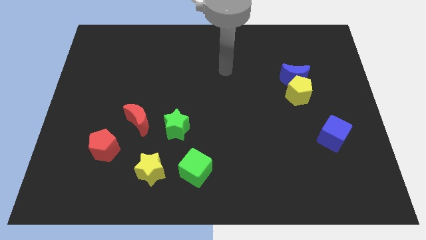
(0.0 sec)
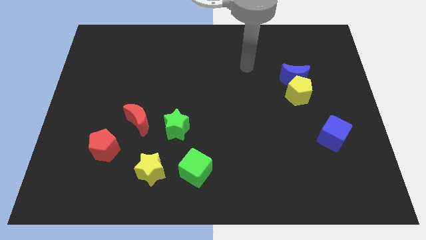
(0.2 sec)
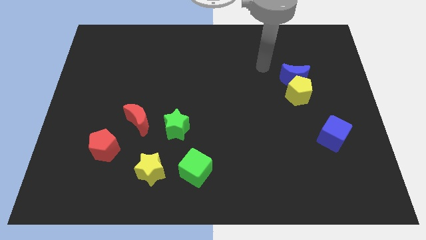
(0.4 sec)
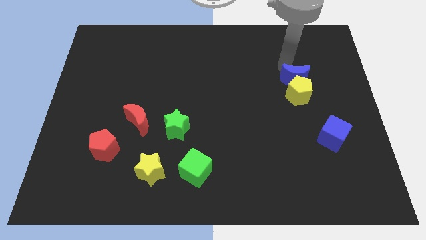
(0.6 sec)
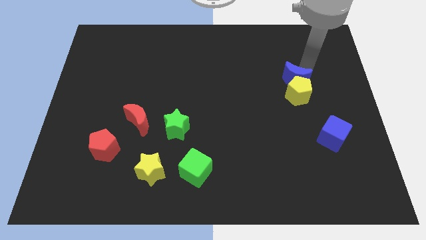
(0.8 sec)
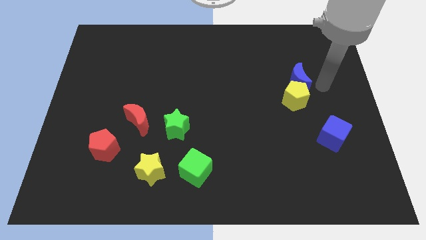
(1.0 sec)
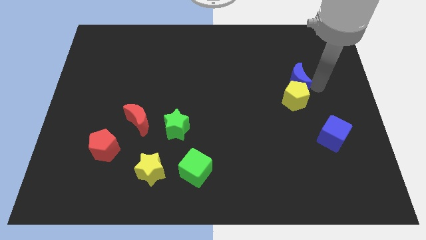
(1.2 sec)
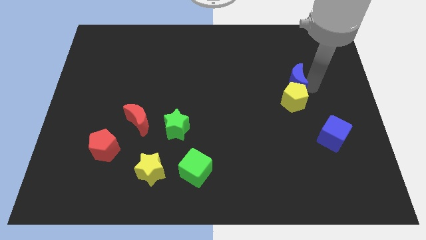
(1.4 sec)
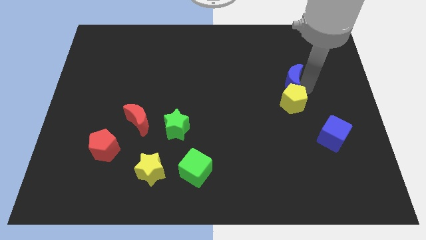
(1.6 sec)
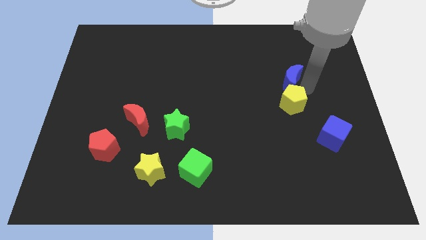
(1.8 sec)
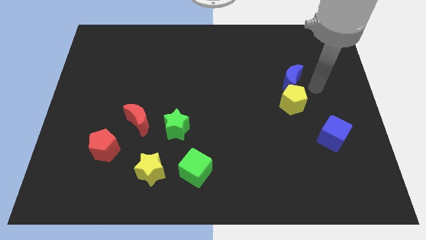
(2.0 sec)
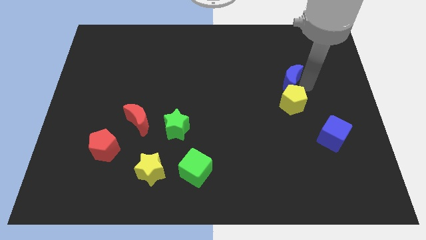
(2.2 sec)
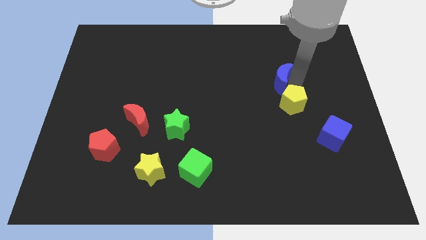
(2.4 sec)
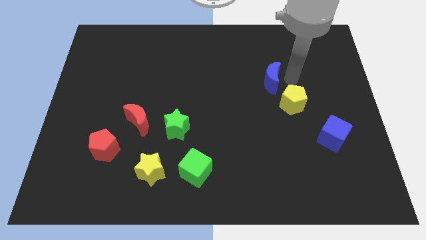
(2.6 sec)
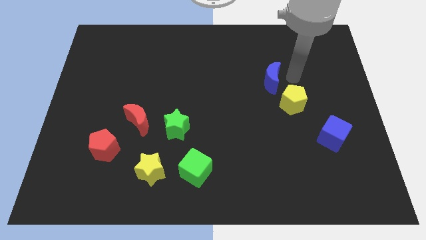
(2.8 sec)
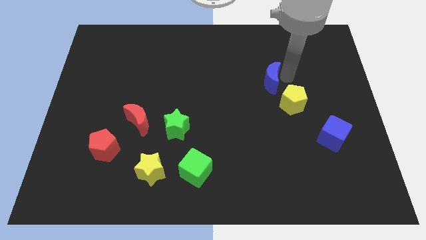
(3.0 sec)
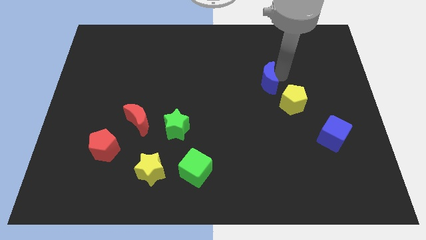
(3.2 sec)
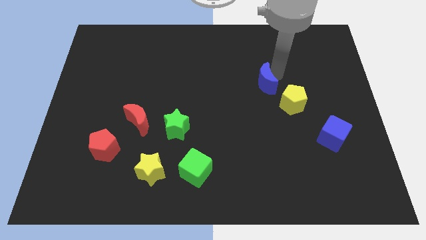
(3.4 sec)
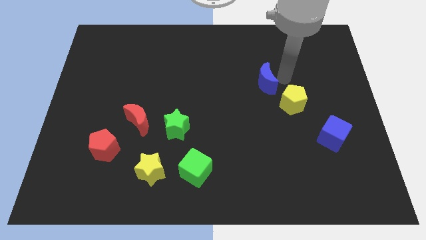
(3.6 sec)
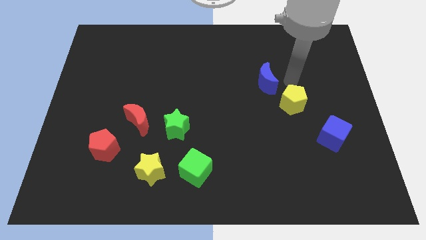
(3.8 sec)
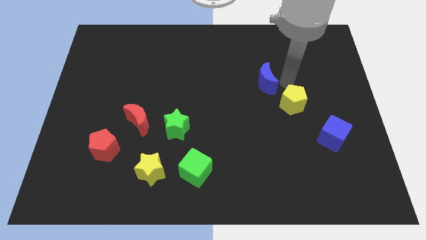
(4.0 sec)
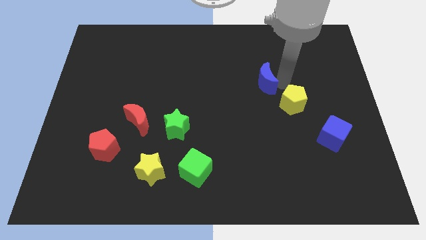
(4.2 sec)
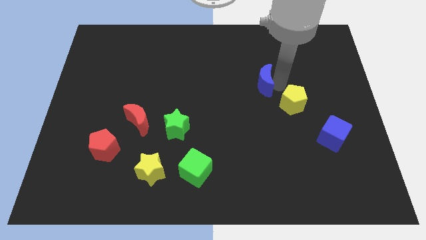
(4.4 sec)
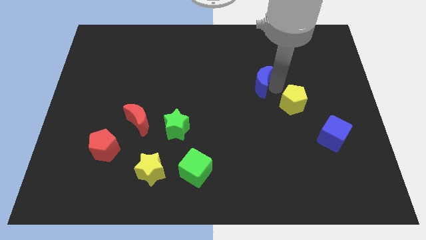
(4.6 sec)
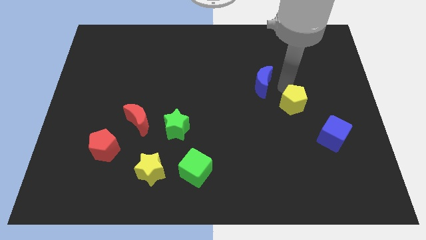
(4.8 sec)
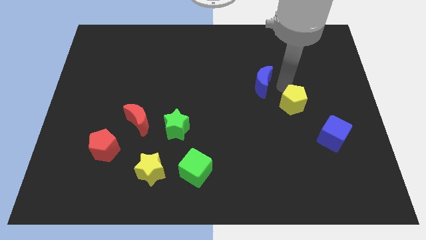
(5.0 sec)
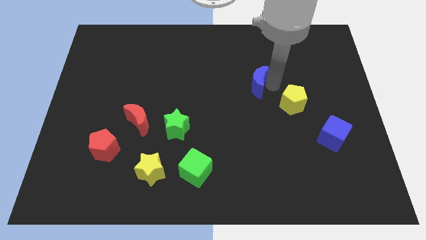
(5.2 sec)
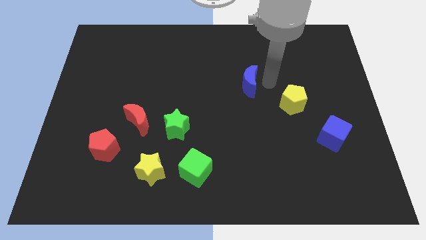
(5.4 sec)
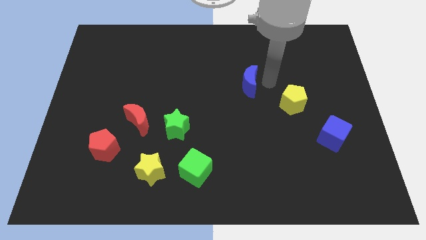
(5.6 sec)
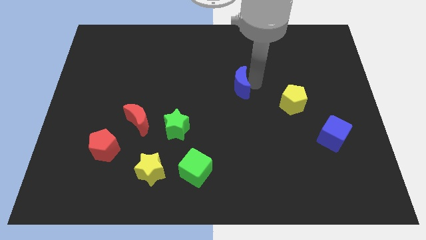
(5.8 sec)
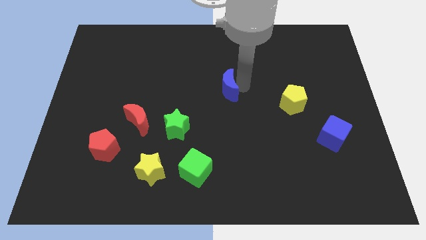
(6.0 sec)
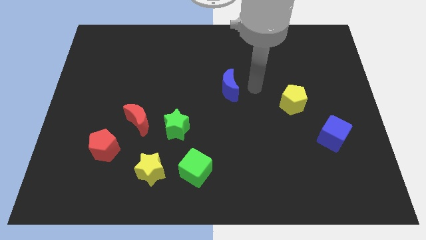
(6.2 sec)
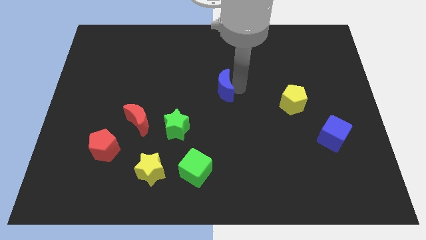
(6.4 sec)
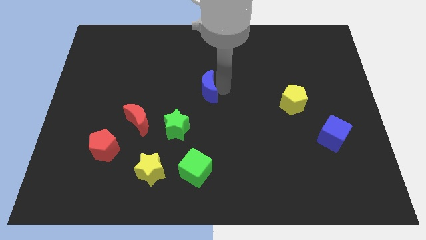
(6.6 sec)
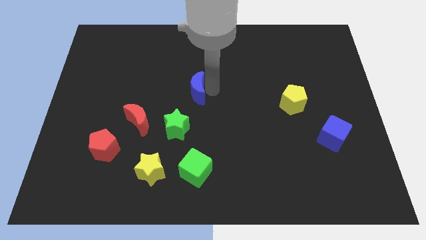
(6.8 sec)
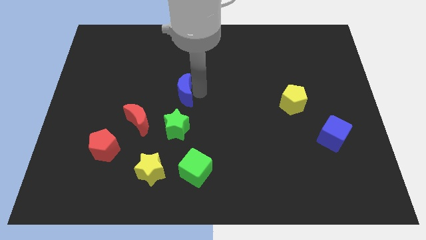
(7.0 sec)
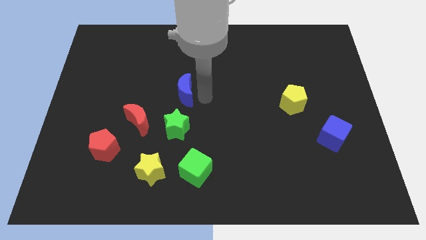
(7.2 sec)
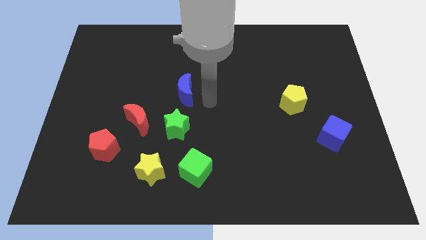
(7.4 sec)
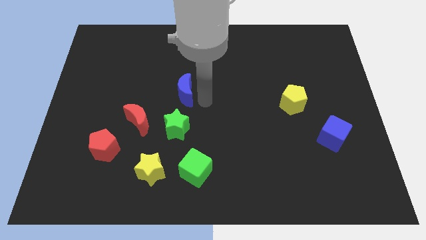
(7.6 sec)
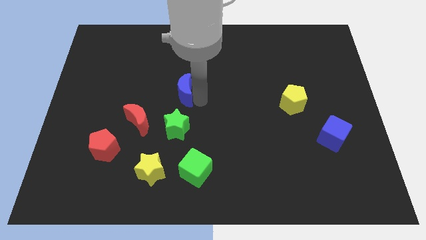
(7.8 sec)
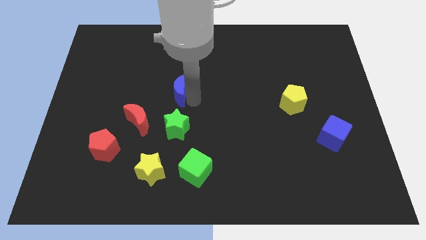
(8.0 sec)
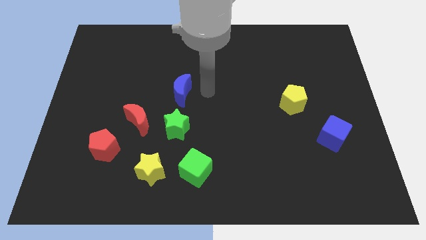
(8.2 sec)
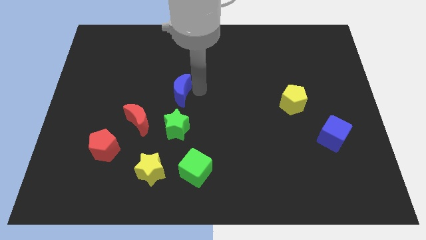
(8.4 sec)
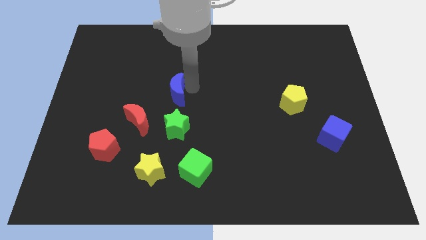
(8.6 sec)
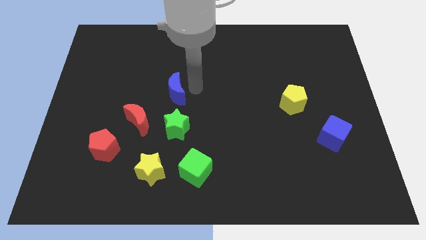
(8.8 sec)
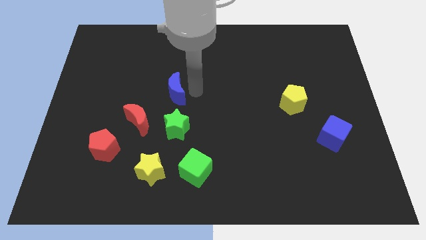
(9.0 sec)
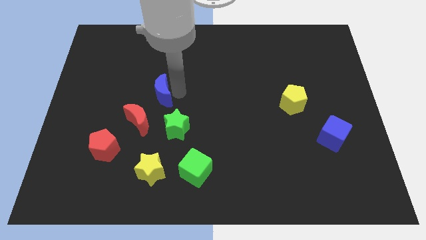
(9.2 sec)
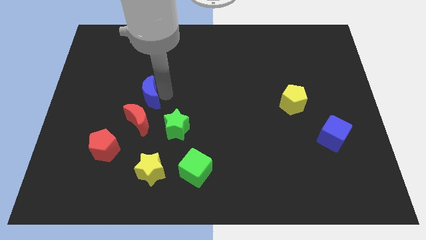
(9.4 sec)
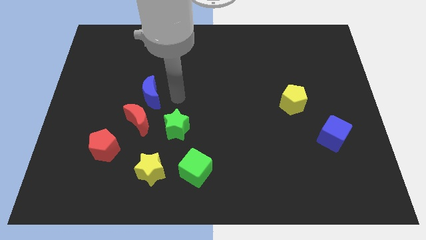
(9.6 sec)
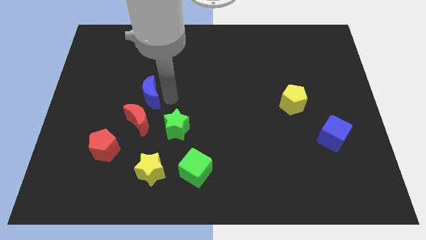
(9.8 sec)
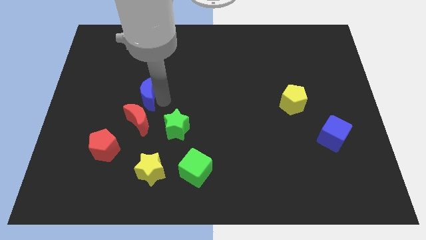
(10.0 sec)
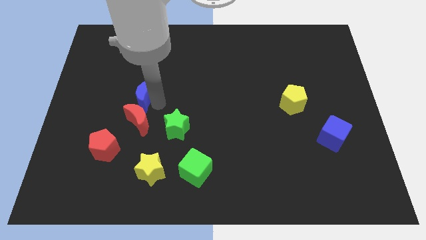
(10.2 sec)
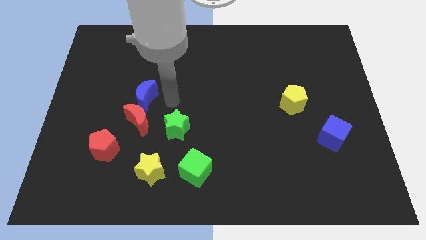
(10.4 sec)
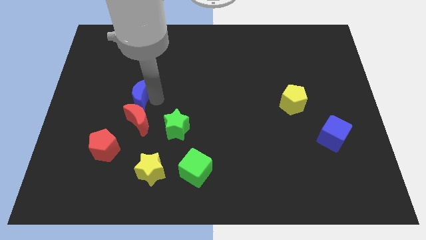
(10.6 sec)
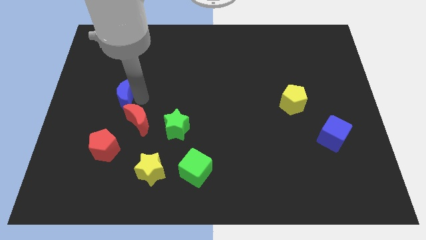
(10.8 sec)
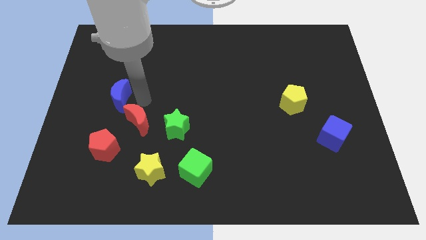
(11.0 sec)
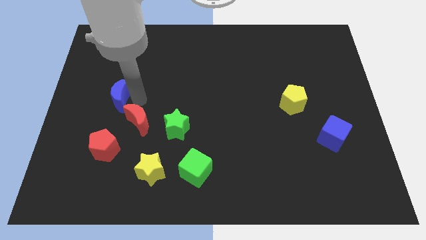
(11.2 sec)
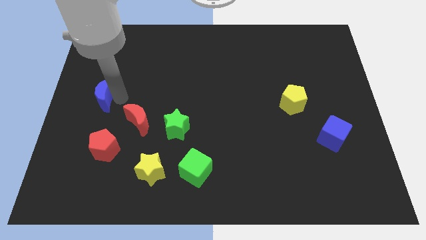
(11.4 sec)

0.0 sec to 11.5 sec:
move the blue moon to the left side

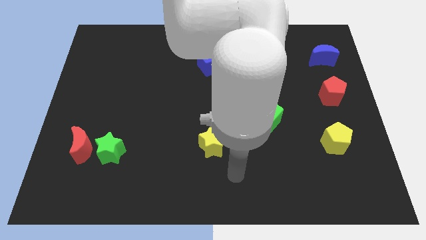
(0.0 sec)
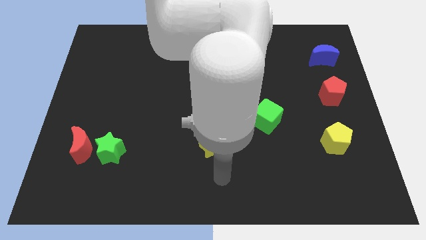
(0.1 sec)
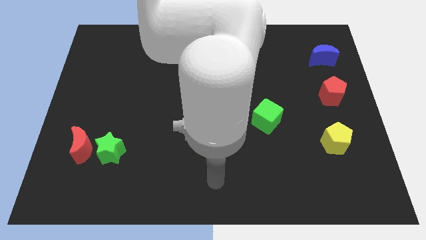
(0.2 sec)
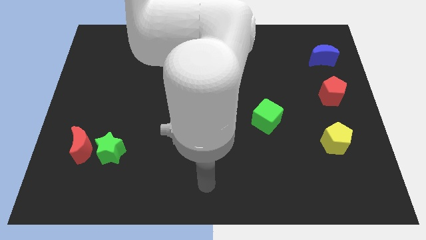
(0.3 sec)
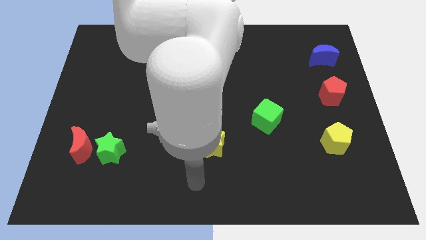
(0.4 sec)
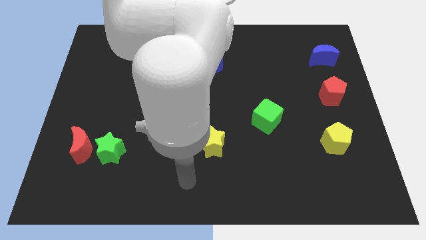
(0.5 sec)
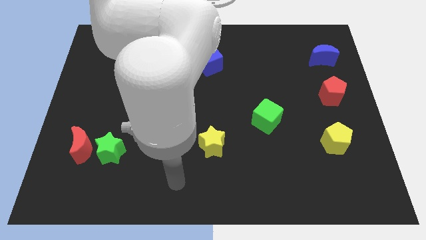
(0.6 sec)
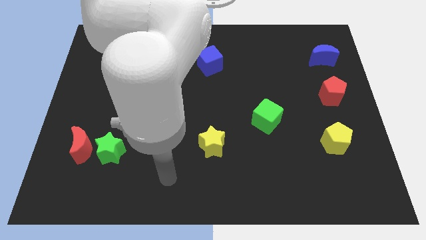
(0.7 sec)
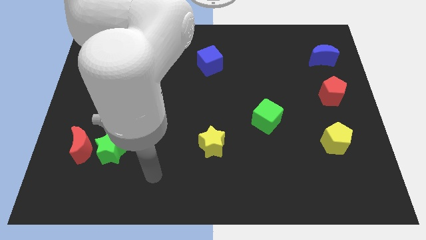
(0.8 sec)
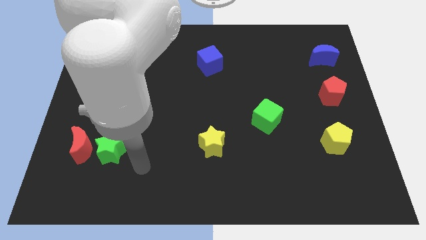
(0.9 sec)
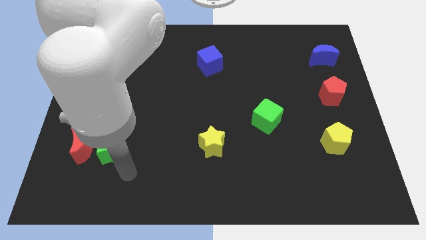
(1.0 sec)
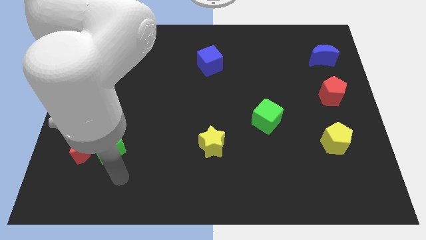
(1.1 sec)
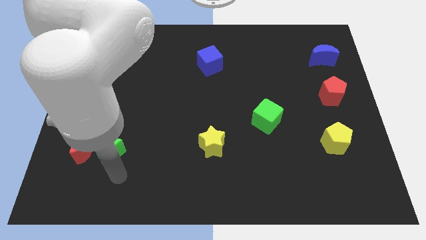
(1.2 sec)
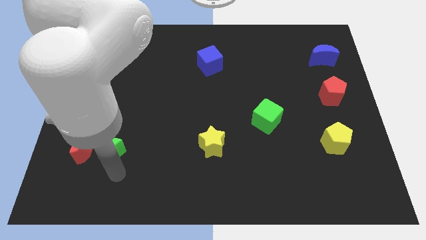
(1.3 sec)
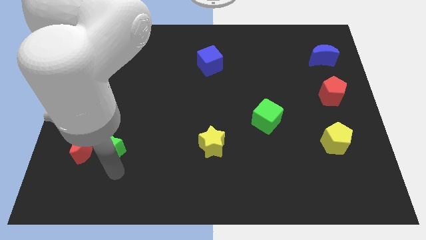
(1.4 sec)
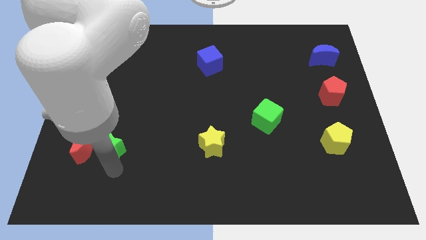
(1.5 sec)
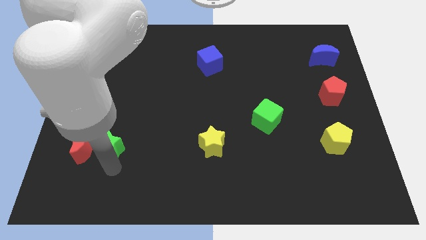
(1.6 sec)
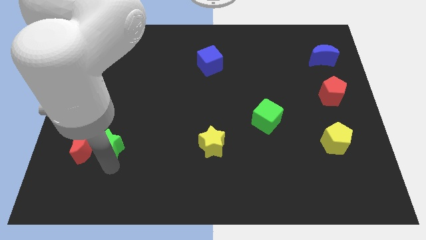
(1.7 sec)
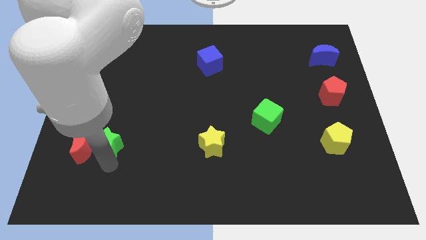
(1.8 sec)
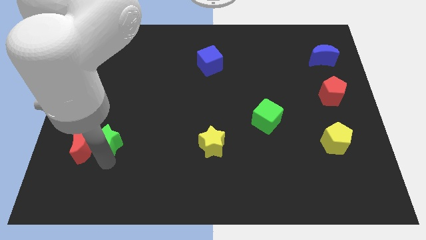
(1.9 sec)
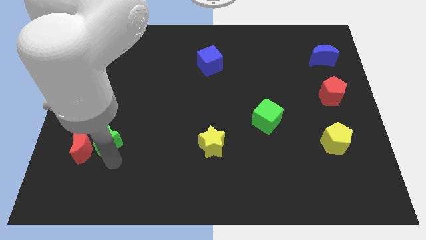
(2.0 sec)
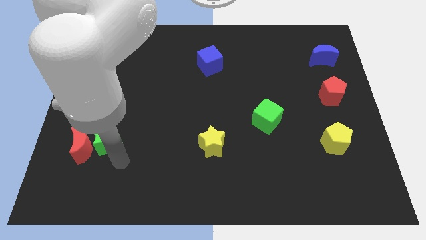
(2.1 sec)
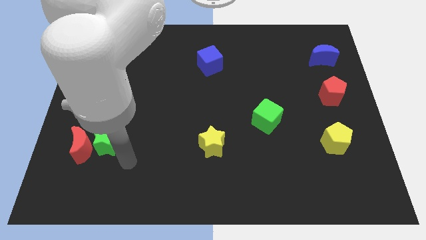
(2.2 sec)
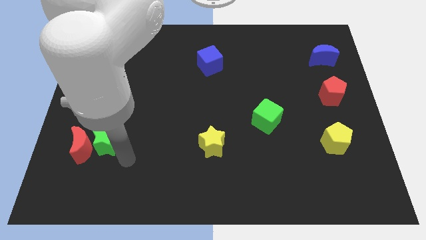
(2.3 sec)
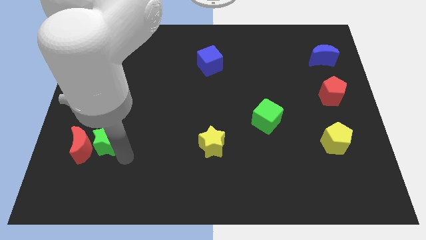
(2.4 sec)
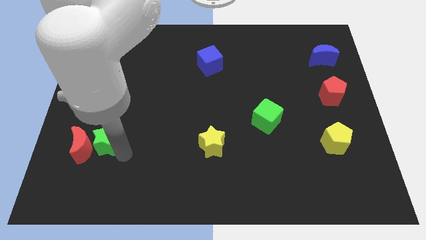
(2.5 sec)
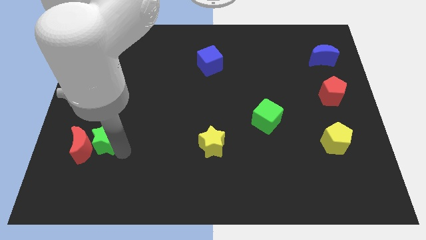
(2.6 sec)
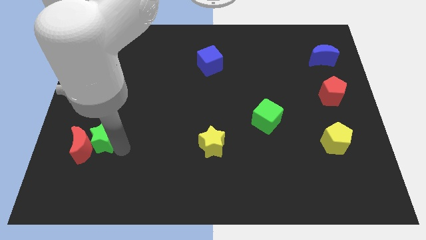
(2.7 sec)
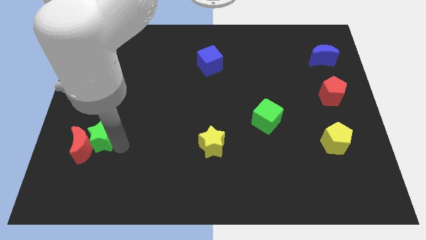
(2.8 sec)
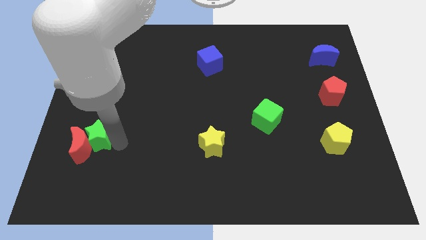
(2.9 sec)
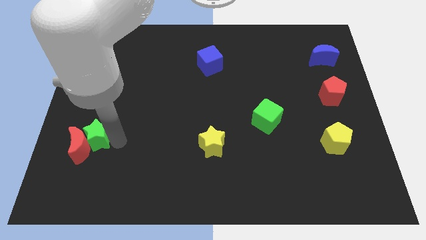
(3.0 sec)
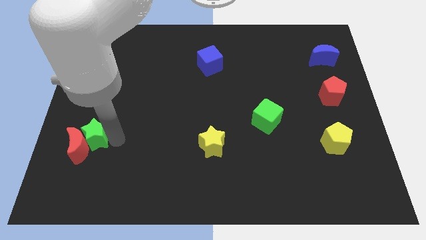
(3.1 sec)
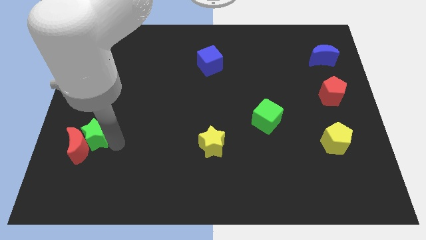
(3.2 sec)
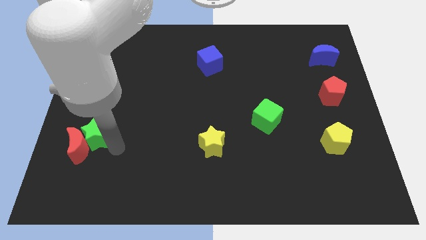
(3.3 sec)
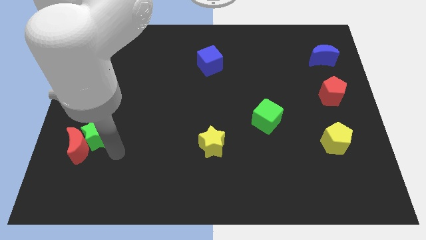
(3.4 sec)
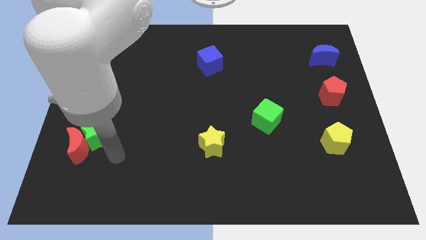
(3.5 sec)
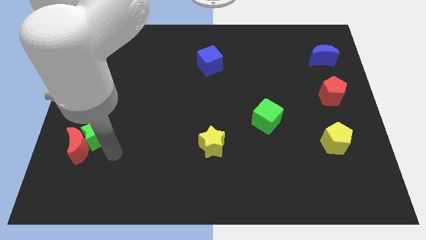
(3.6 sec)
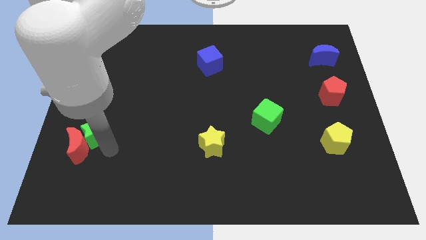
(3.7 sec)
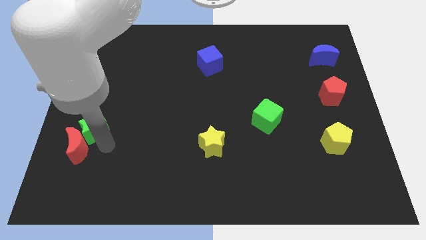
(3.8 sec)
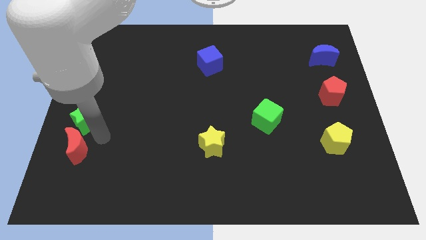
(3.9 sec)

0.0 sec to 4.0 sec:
push the green star to the center left
